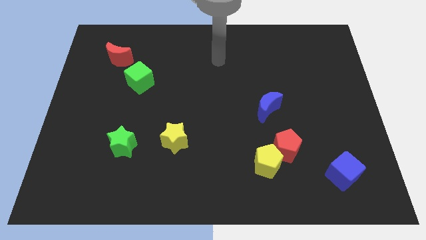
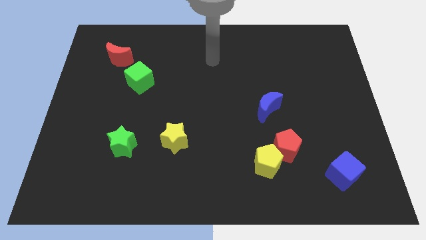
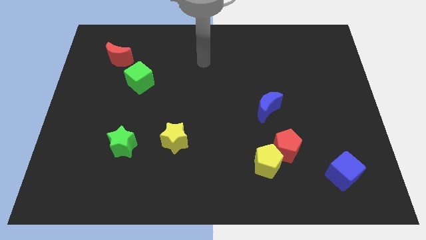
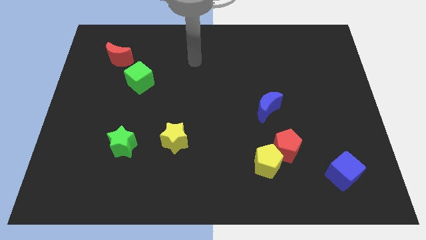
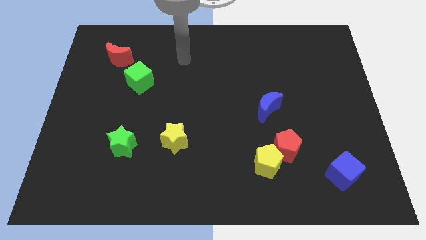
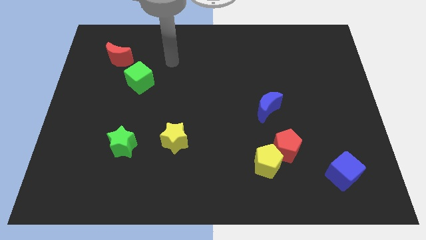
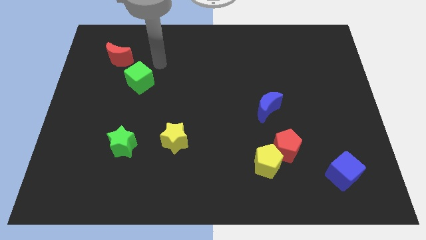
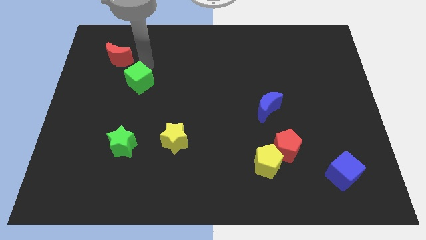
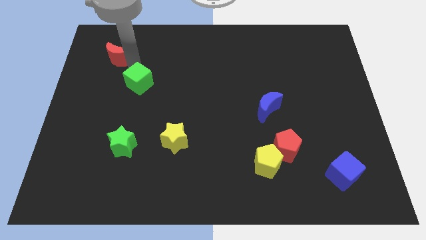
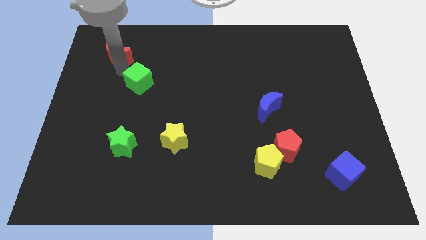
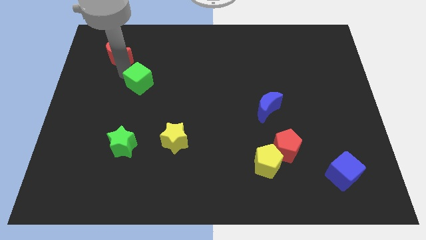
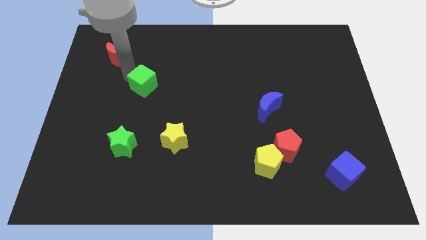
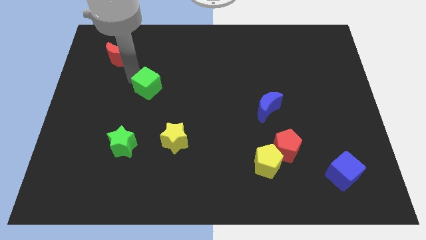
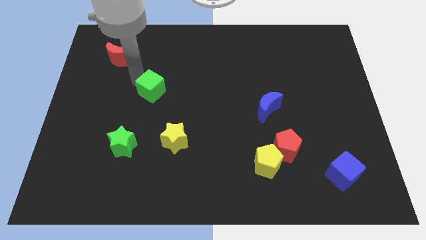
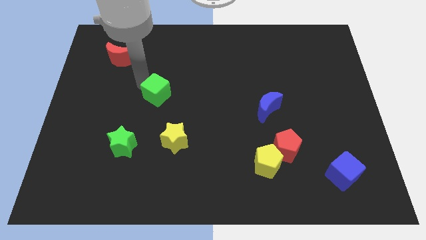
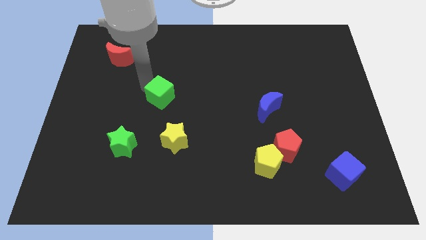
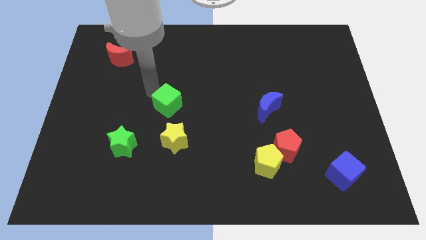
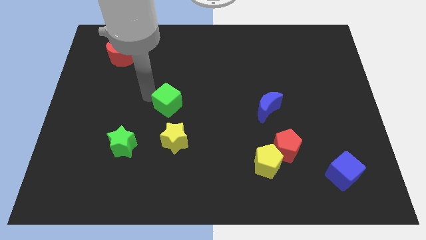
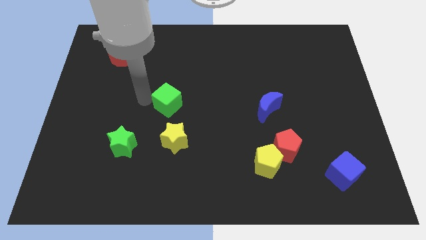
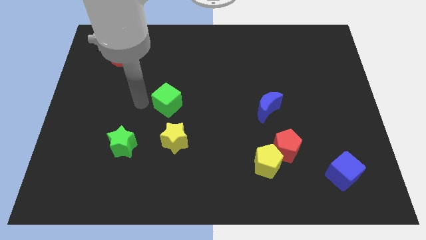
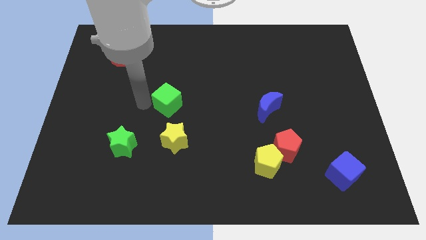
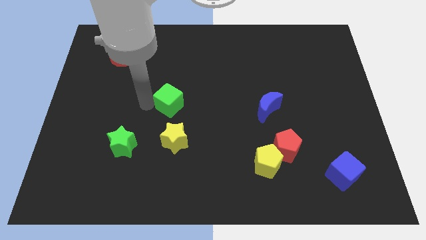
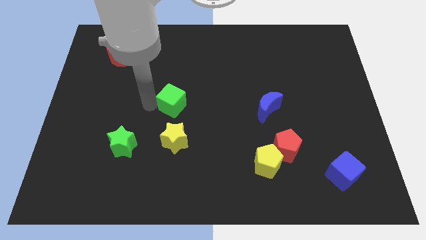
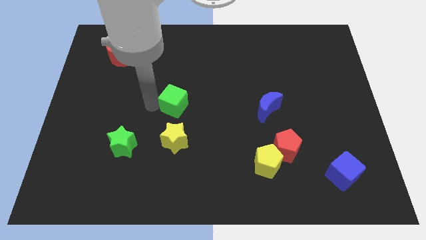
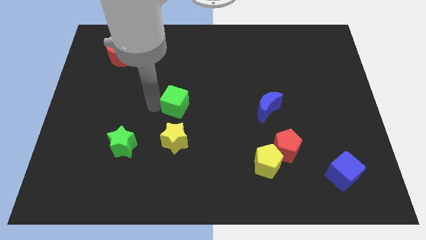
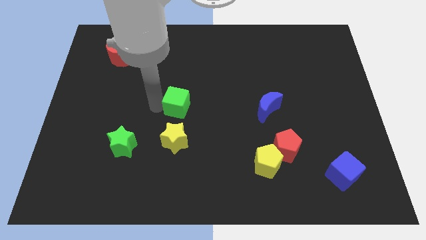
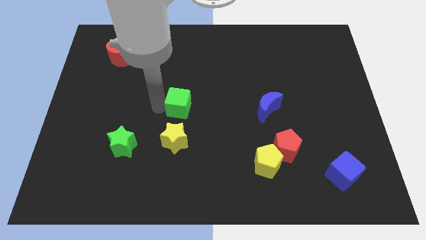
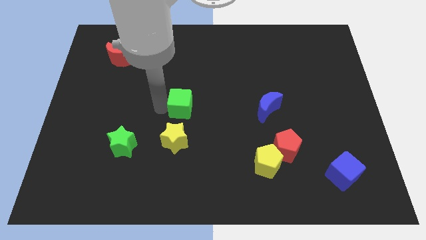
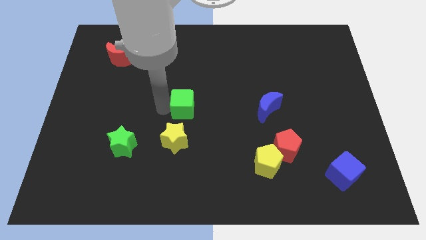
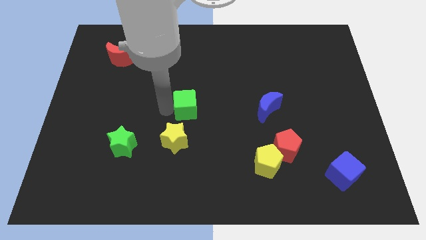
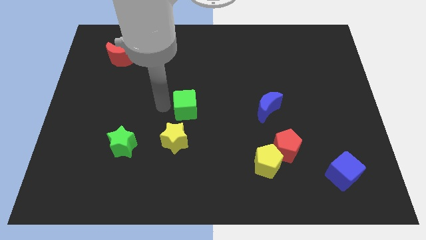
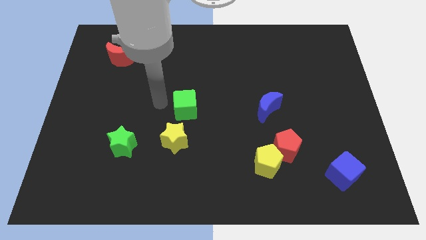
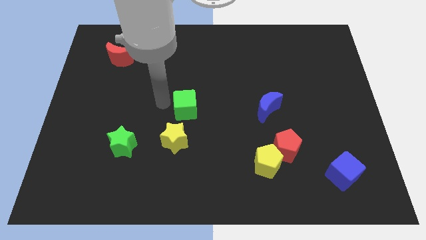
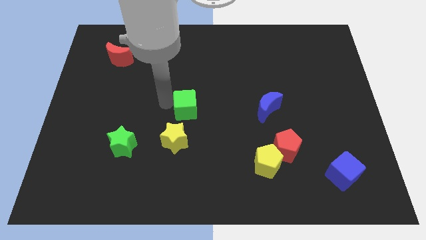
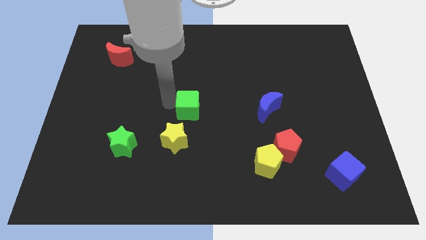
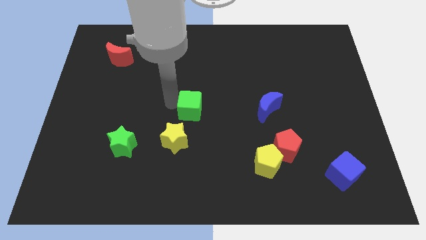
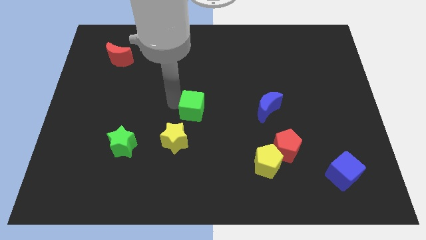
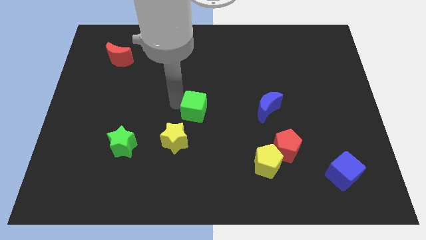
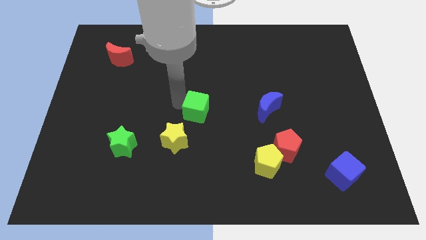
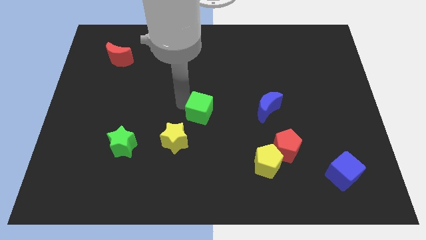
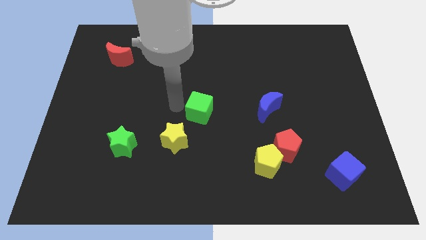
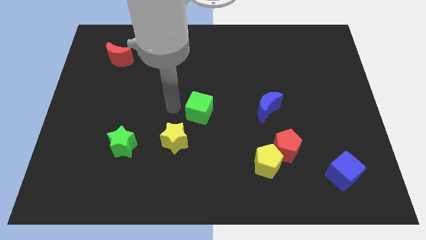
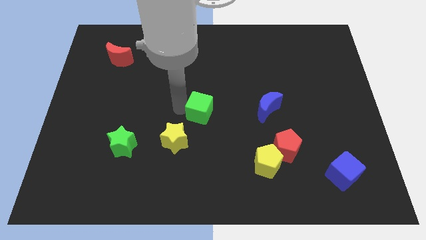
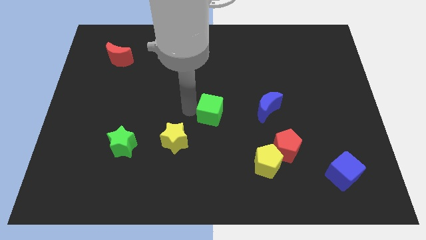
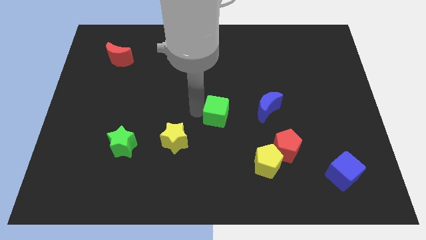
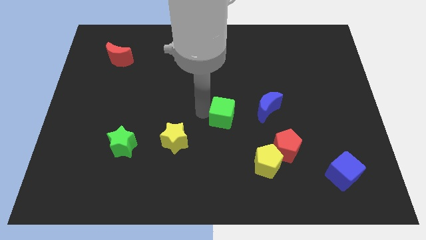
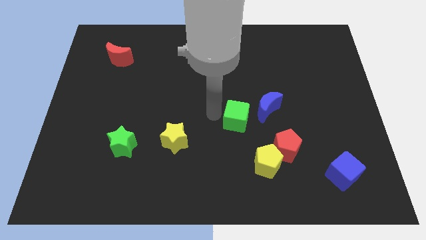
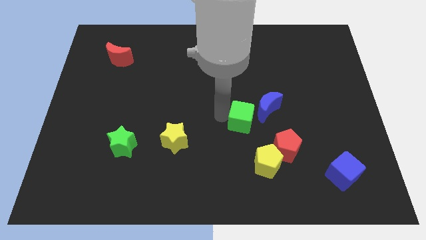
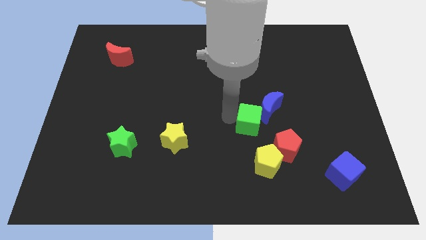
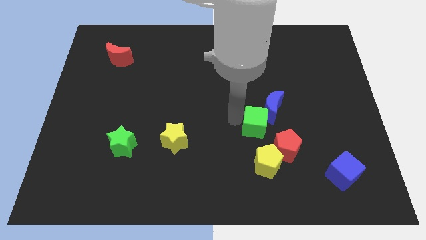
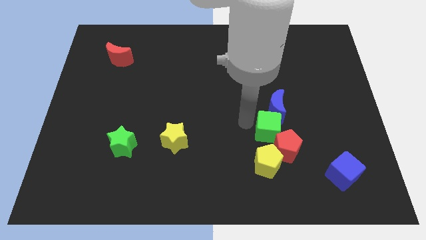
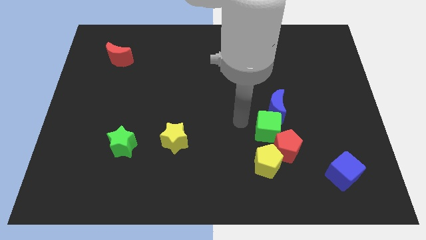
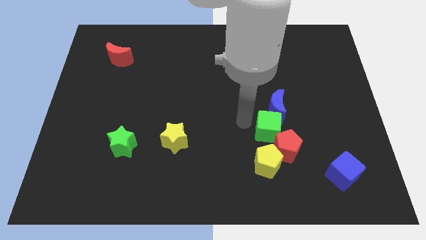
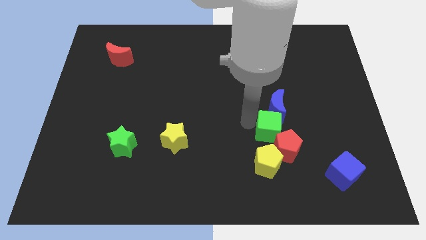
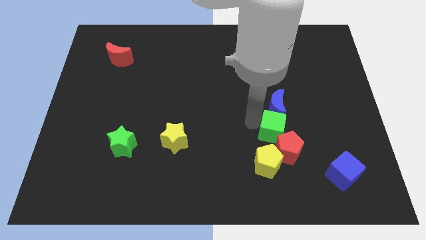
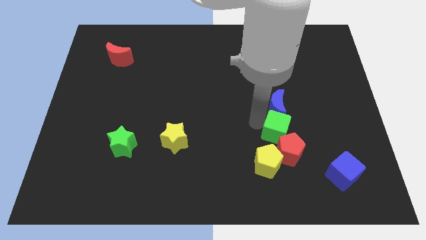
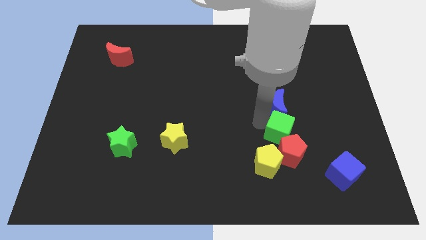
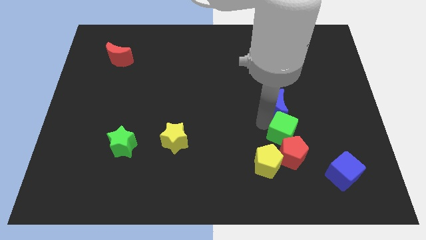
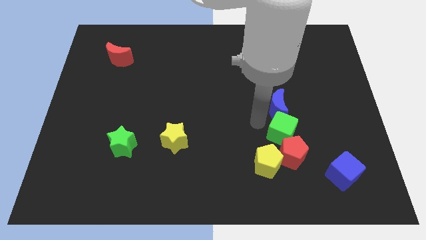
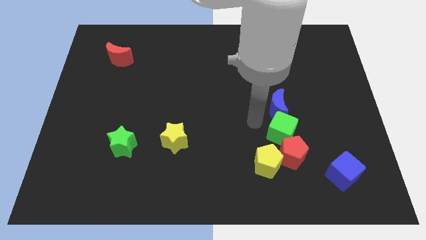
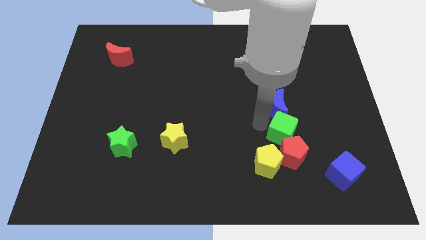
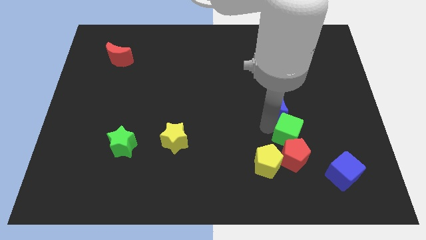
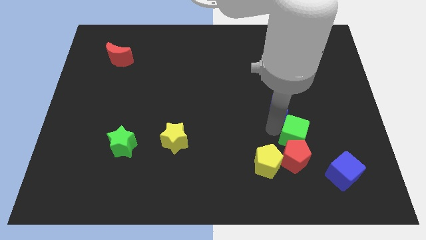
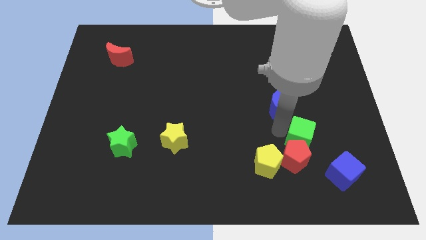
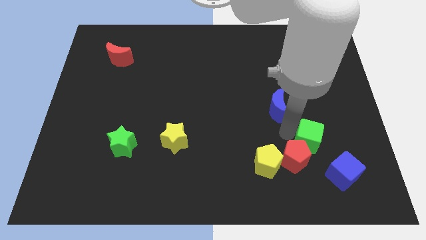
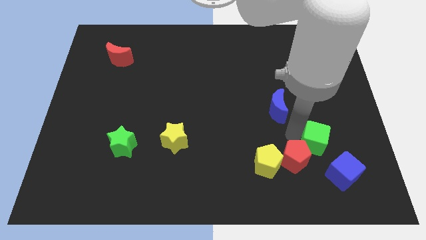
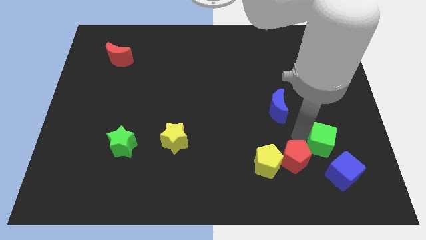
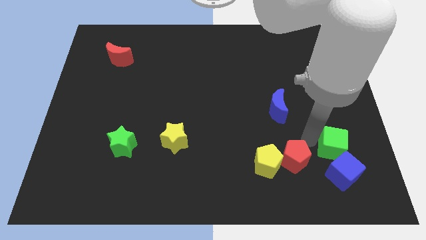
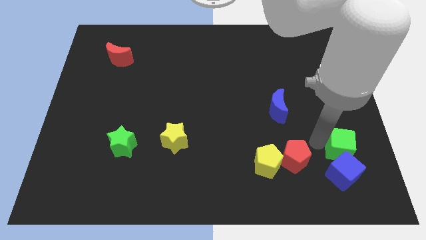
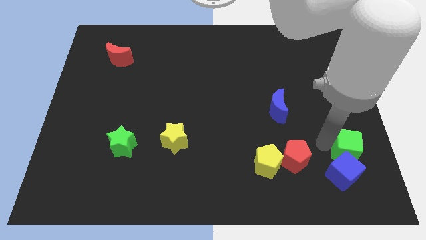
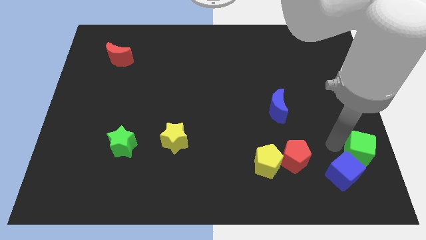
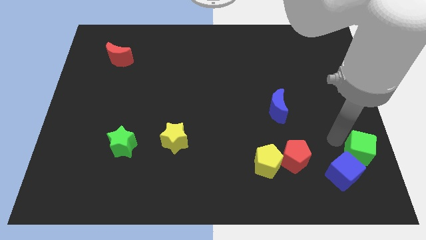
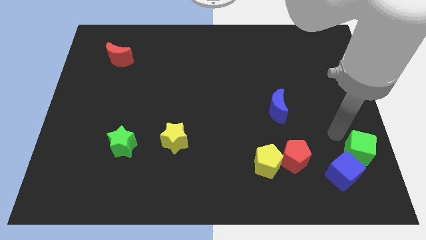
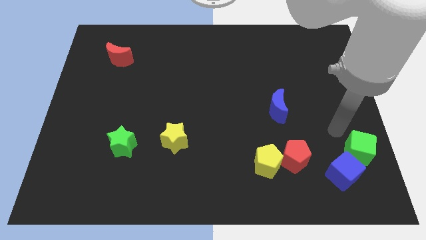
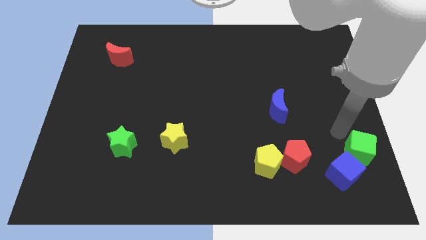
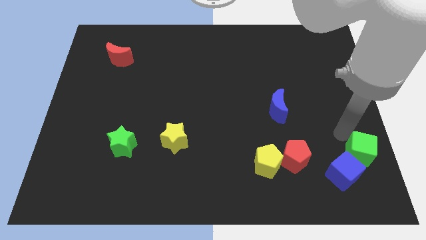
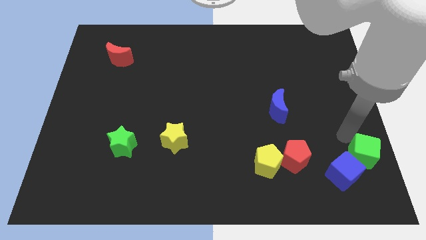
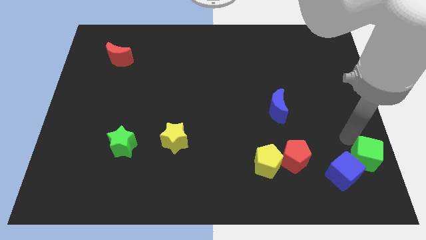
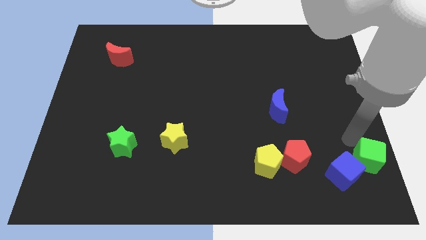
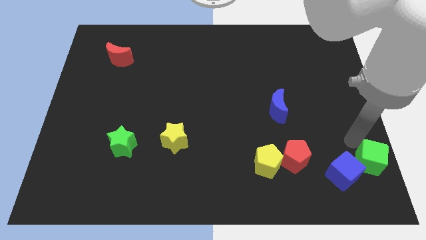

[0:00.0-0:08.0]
push the green cube to the bottom right
